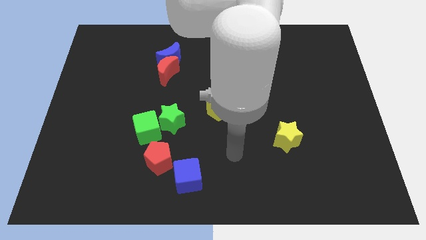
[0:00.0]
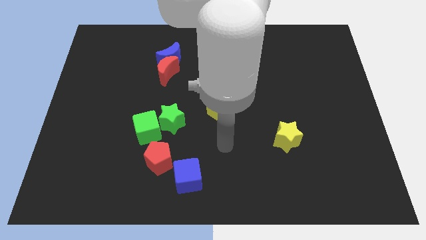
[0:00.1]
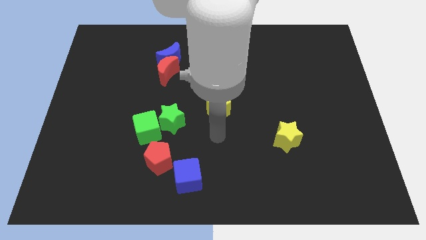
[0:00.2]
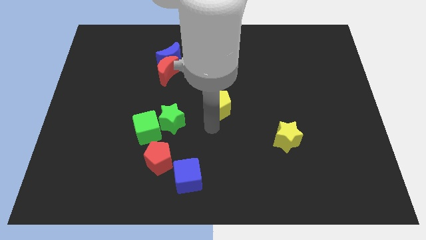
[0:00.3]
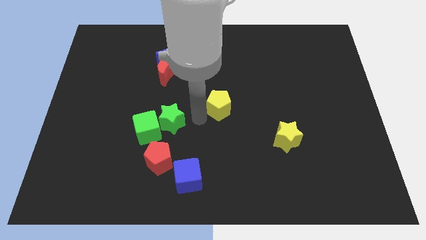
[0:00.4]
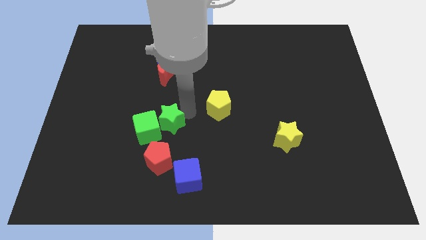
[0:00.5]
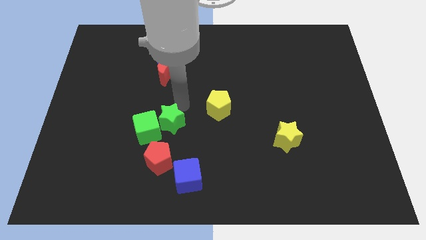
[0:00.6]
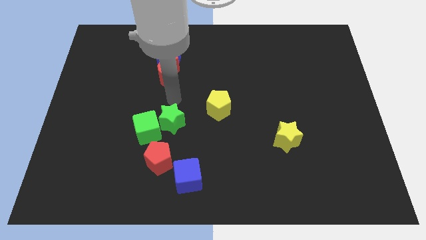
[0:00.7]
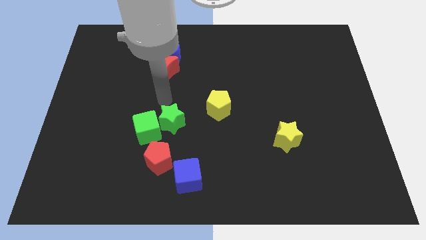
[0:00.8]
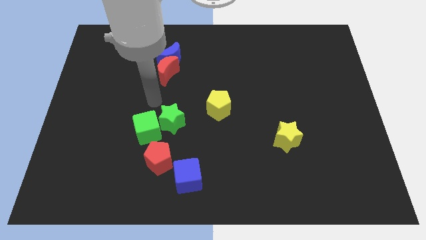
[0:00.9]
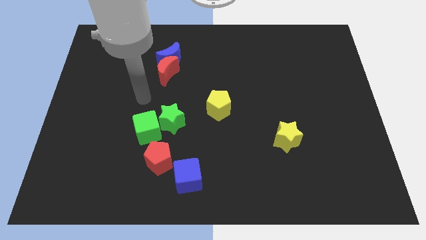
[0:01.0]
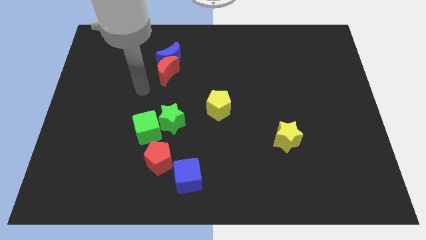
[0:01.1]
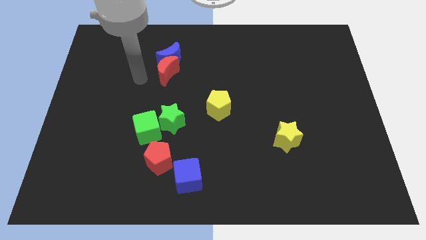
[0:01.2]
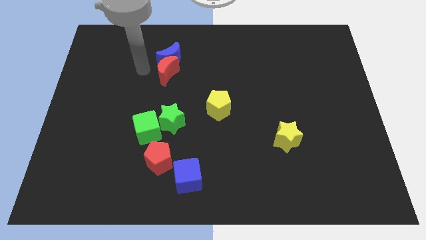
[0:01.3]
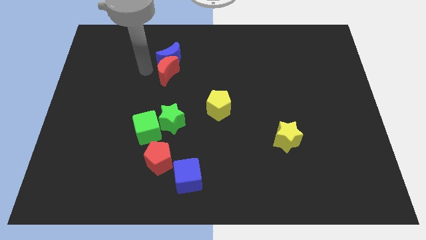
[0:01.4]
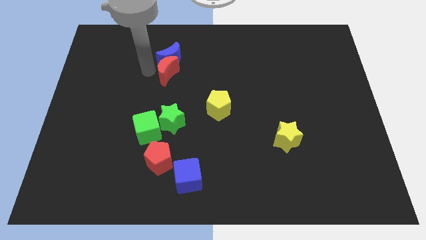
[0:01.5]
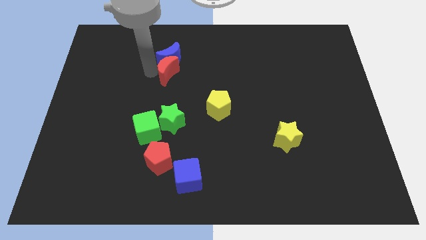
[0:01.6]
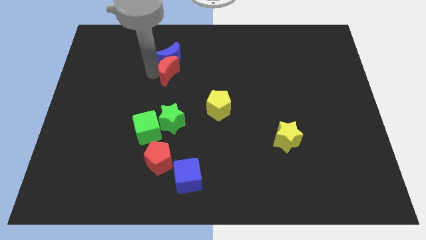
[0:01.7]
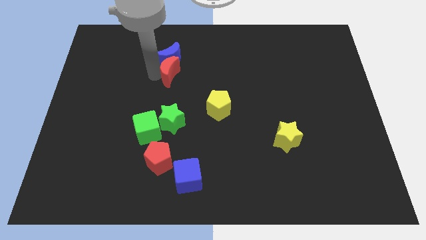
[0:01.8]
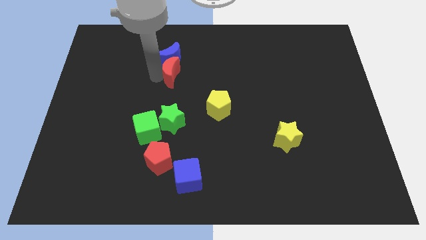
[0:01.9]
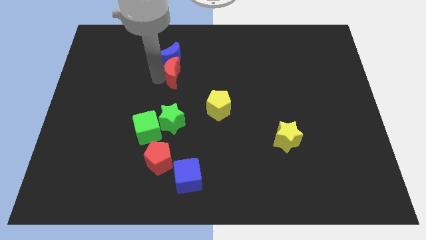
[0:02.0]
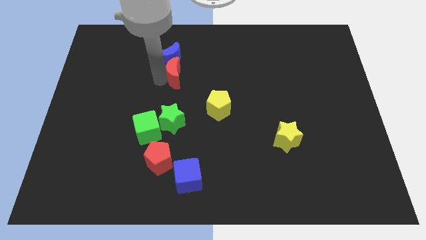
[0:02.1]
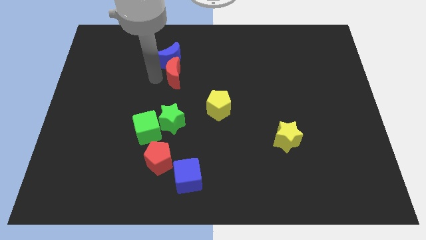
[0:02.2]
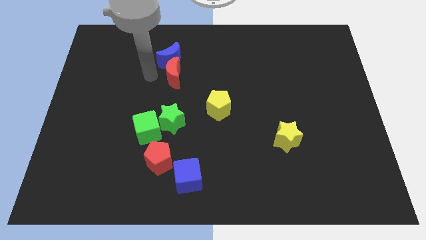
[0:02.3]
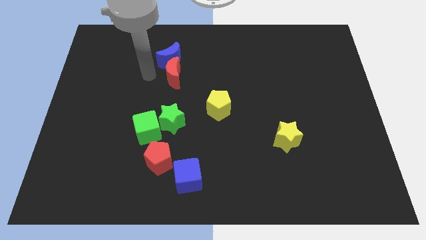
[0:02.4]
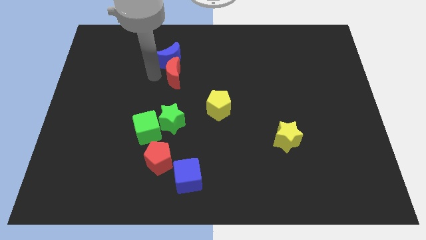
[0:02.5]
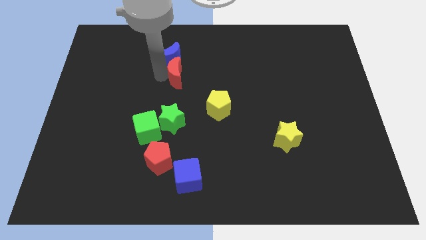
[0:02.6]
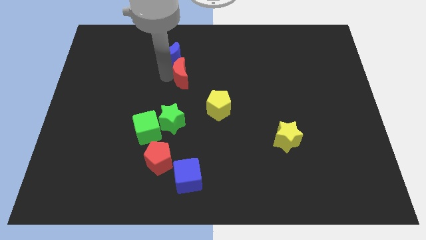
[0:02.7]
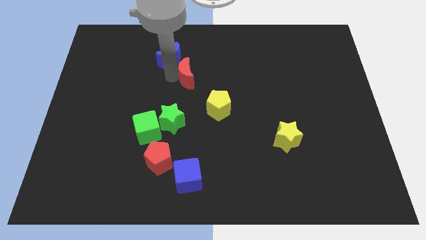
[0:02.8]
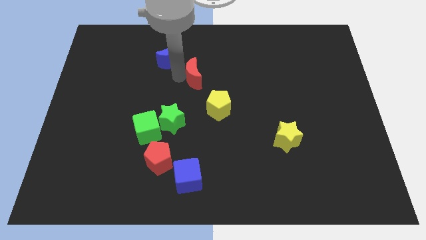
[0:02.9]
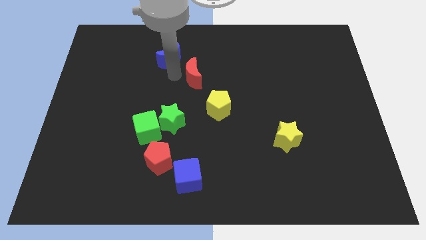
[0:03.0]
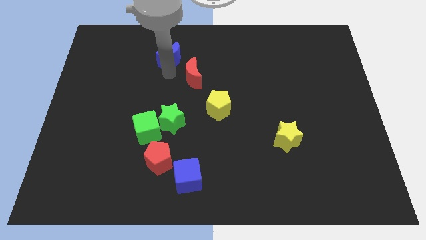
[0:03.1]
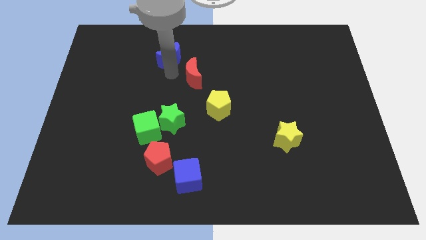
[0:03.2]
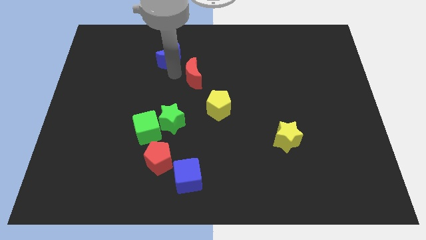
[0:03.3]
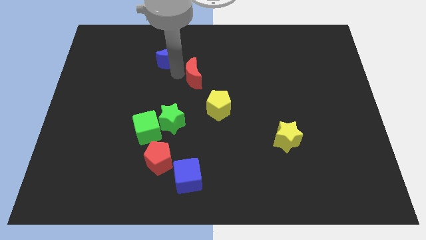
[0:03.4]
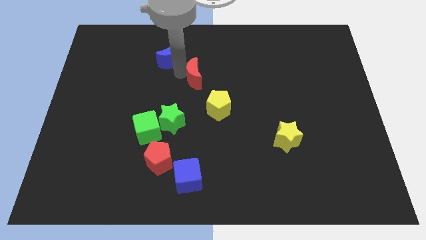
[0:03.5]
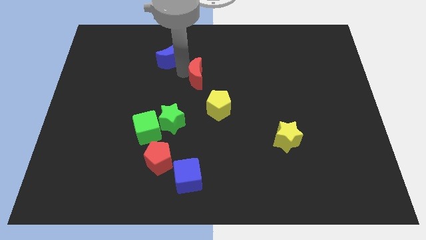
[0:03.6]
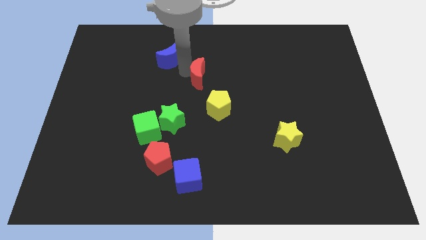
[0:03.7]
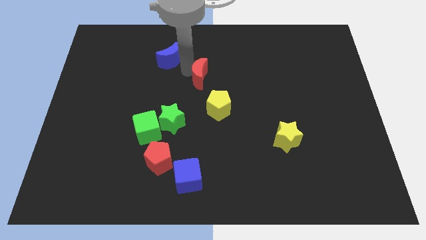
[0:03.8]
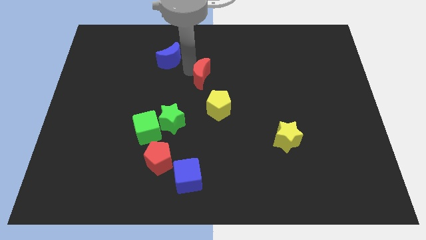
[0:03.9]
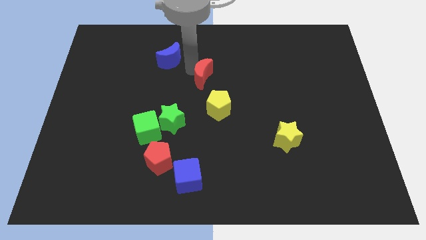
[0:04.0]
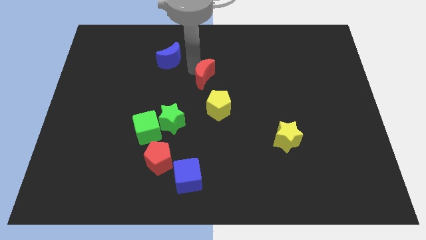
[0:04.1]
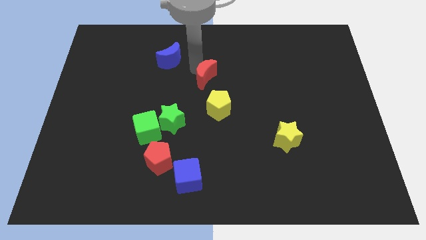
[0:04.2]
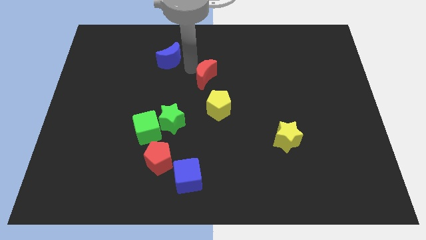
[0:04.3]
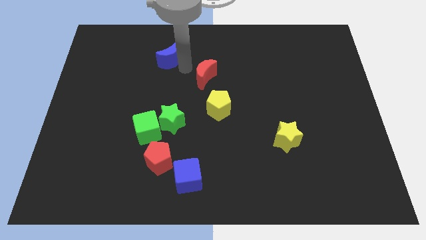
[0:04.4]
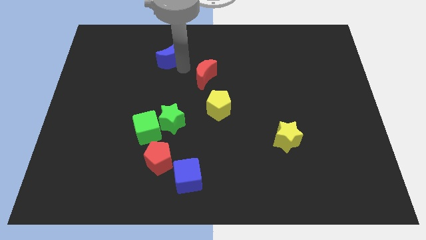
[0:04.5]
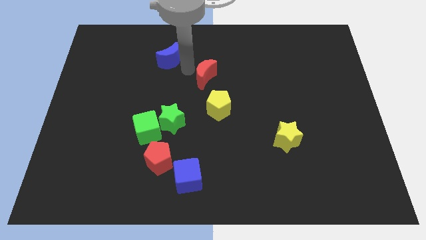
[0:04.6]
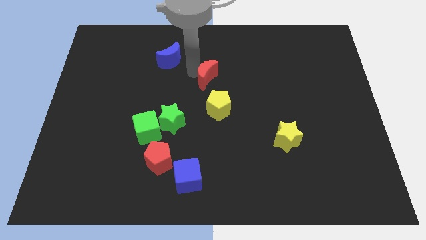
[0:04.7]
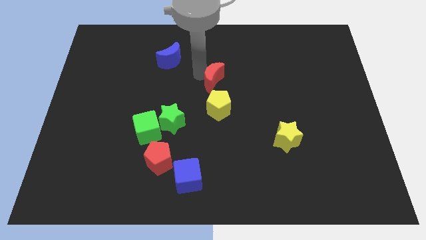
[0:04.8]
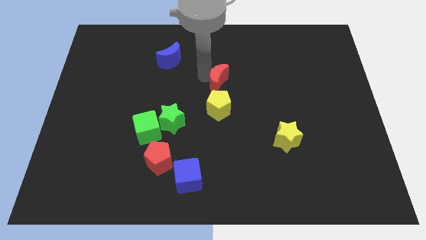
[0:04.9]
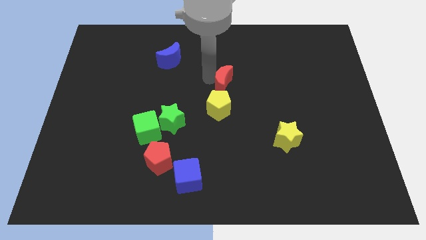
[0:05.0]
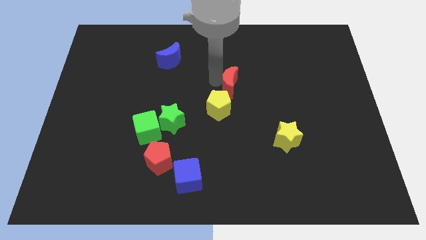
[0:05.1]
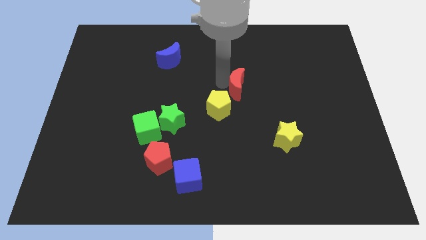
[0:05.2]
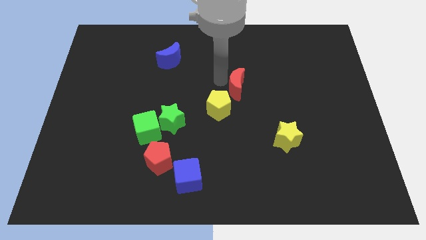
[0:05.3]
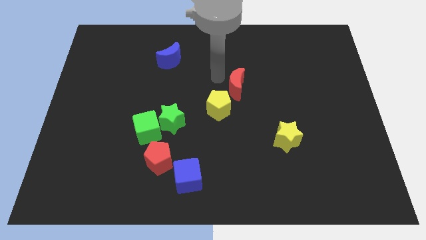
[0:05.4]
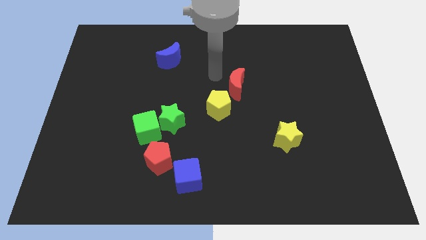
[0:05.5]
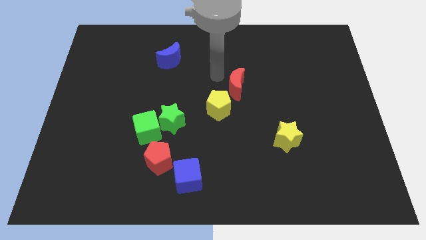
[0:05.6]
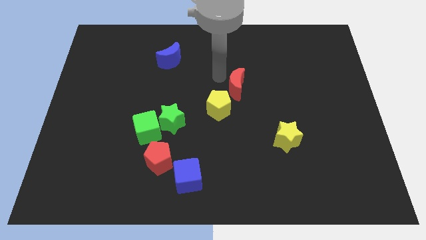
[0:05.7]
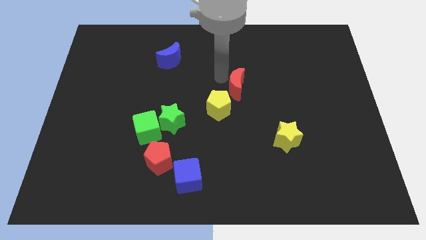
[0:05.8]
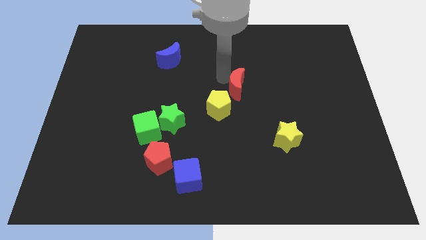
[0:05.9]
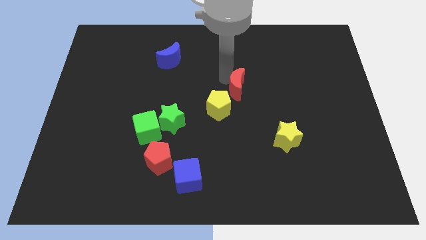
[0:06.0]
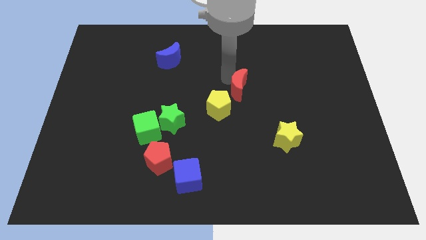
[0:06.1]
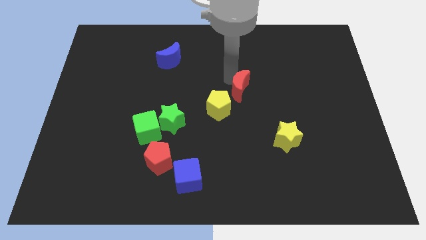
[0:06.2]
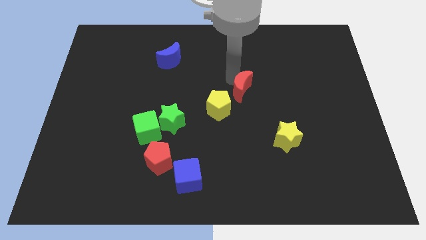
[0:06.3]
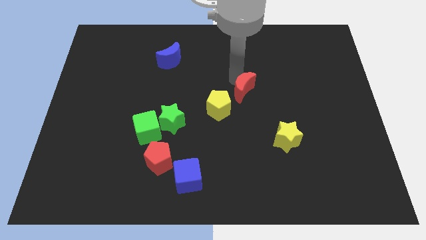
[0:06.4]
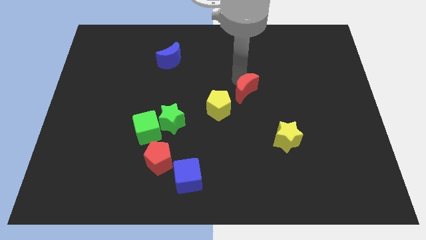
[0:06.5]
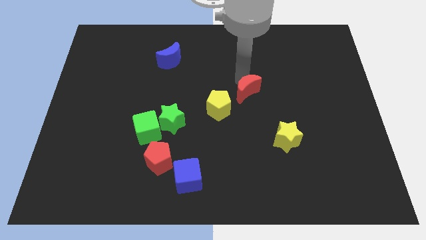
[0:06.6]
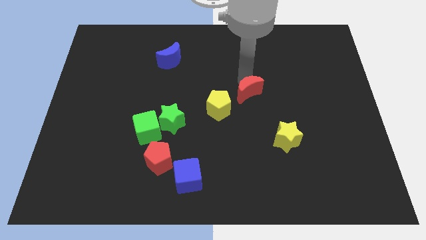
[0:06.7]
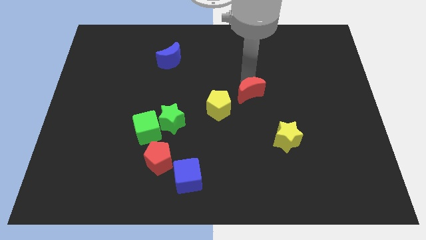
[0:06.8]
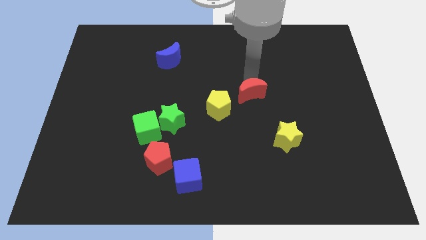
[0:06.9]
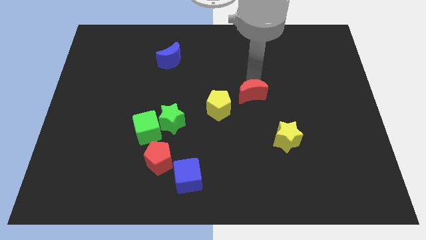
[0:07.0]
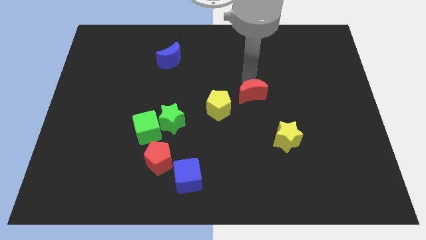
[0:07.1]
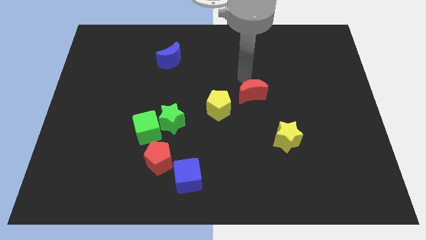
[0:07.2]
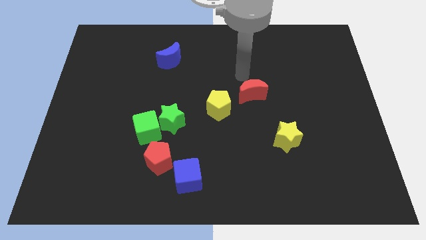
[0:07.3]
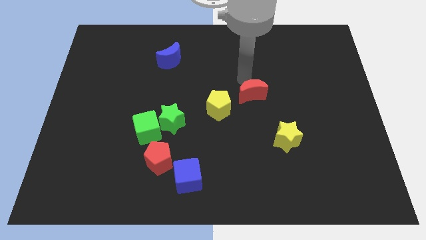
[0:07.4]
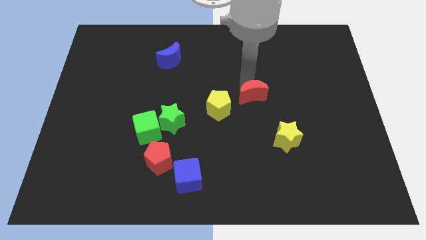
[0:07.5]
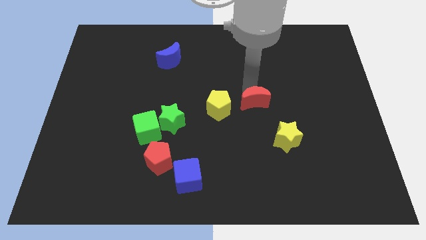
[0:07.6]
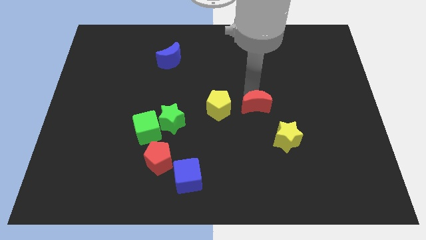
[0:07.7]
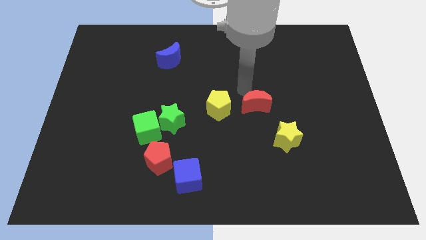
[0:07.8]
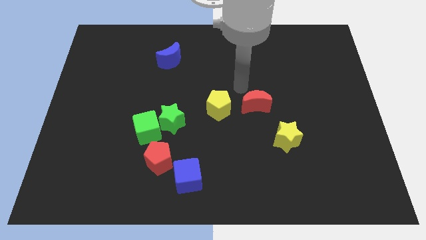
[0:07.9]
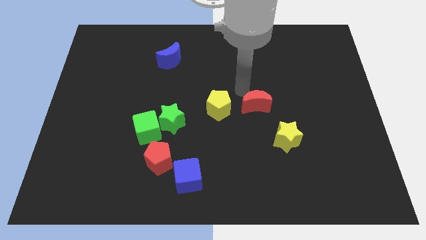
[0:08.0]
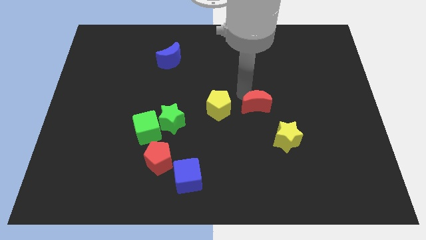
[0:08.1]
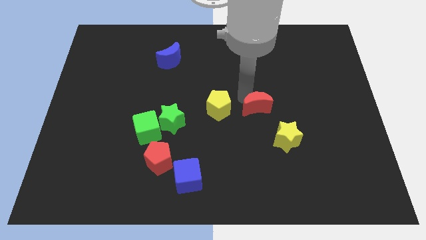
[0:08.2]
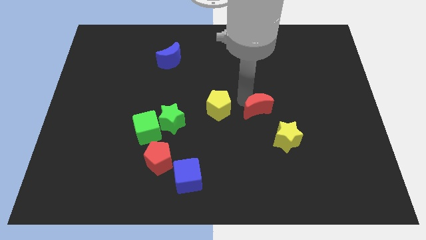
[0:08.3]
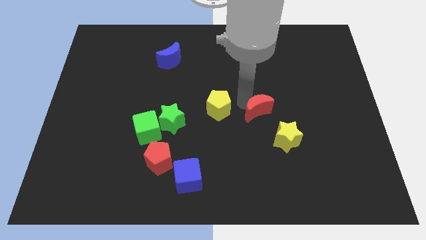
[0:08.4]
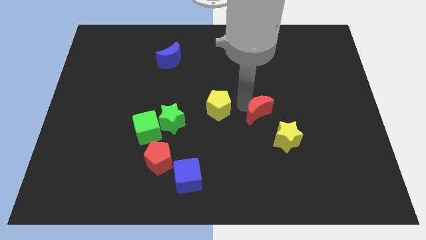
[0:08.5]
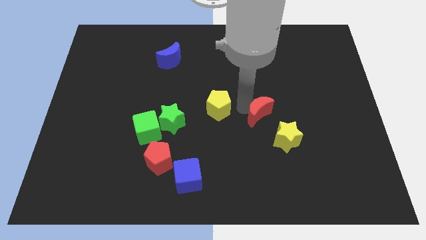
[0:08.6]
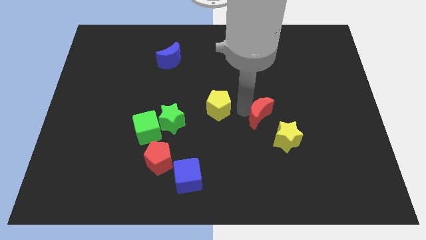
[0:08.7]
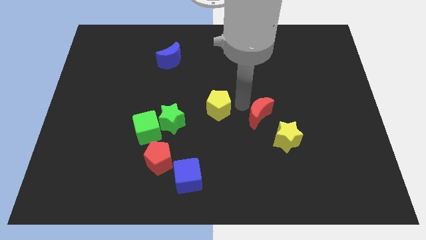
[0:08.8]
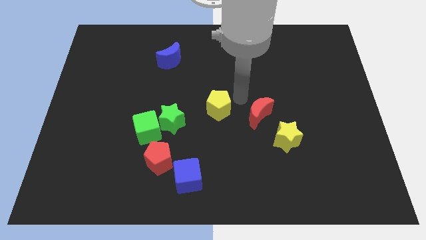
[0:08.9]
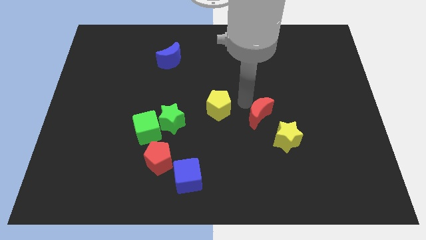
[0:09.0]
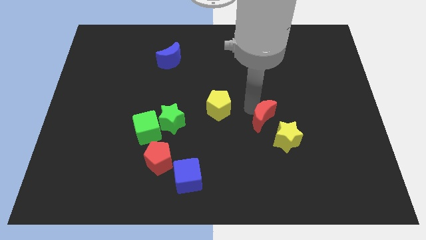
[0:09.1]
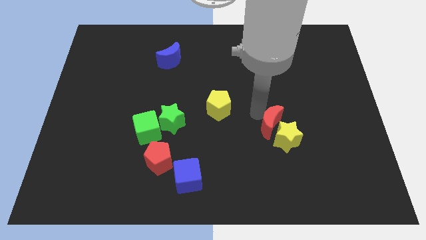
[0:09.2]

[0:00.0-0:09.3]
move the red moon towards the yellow star
